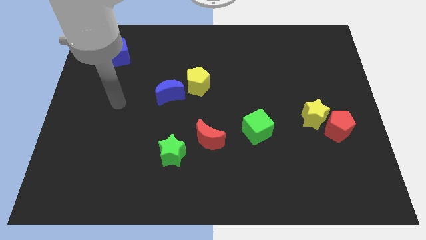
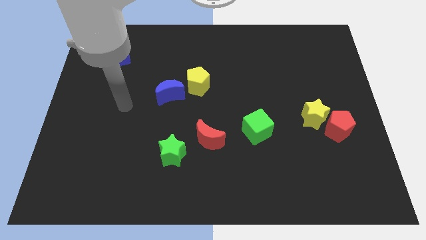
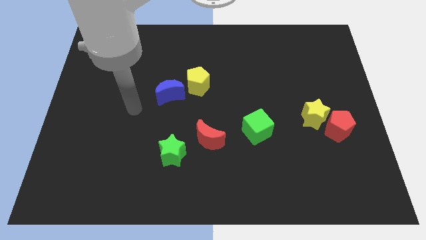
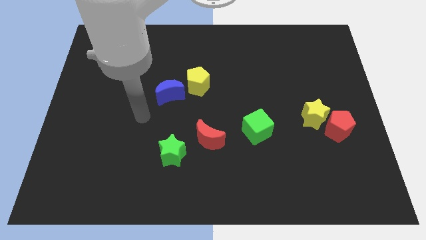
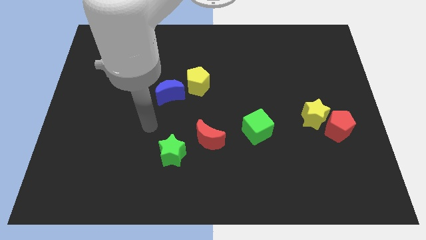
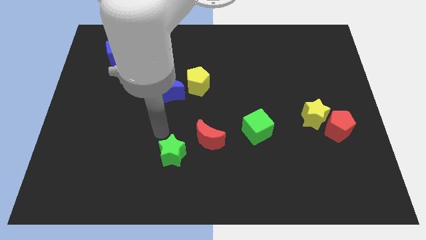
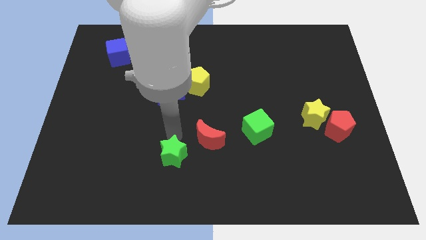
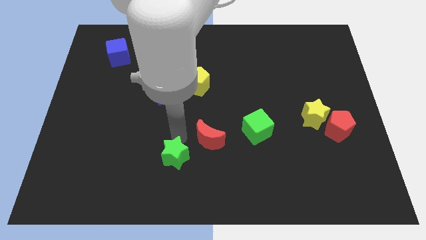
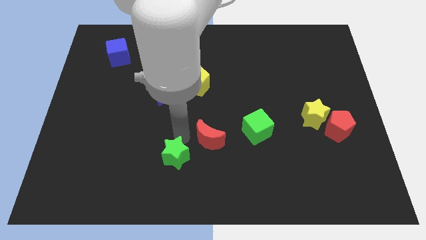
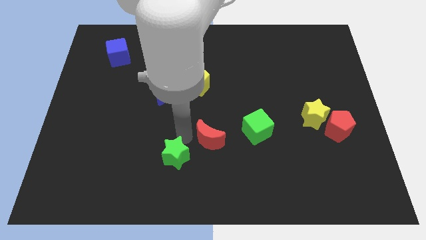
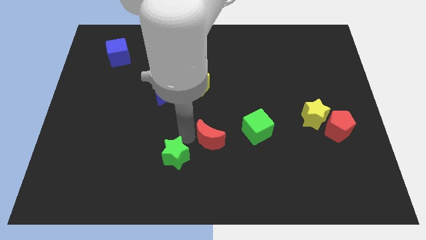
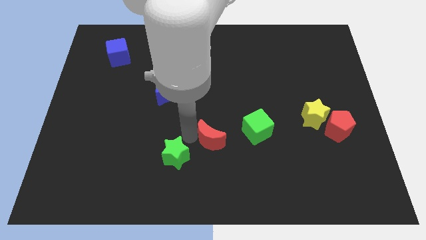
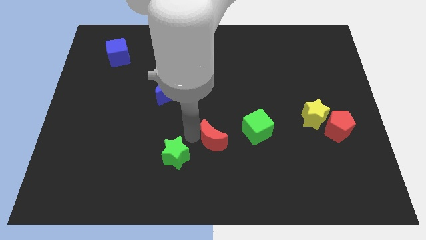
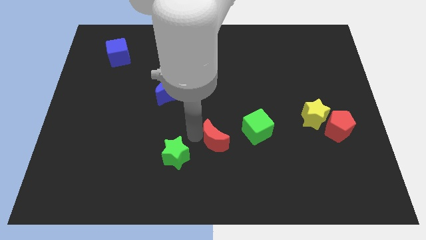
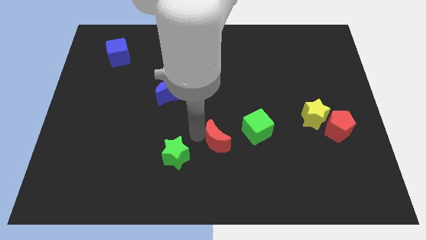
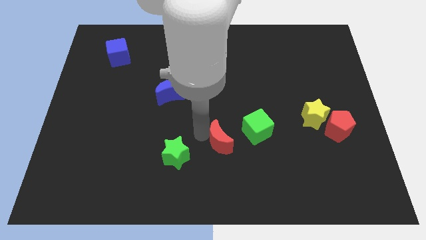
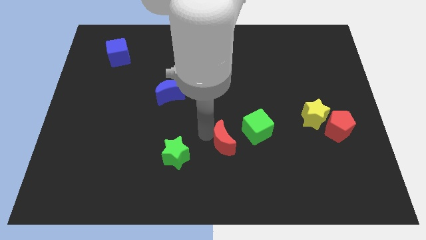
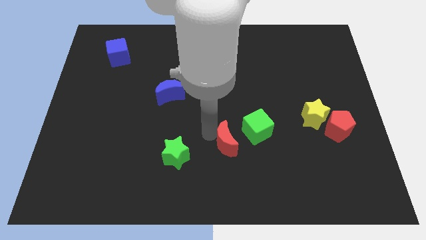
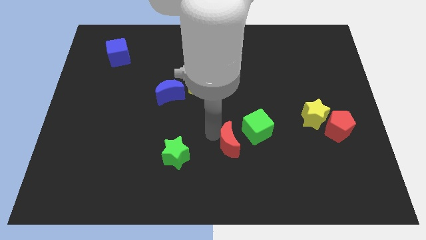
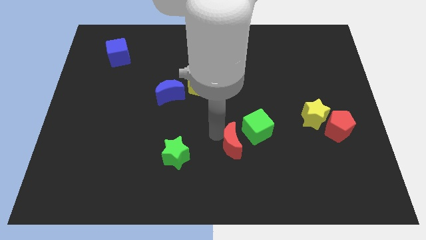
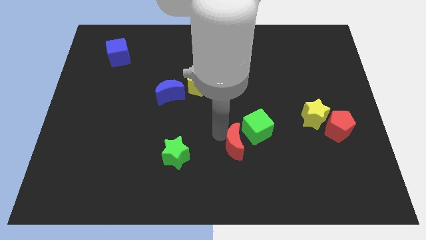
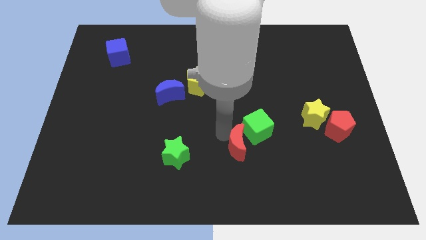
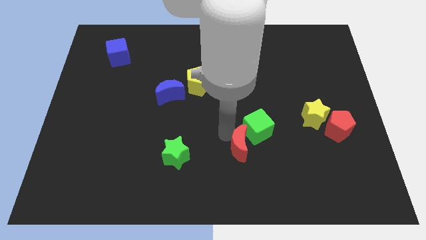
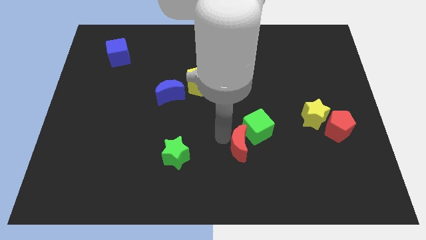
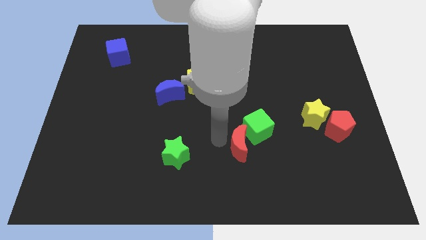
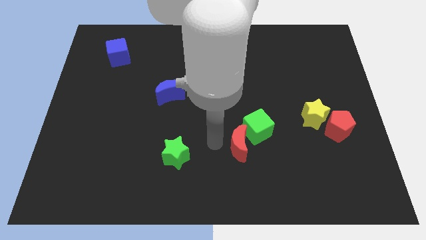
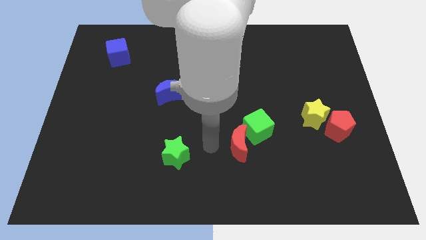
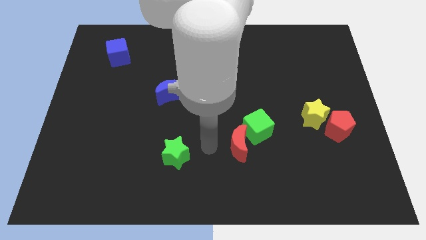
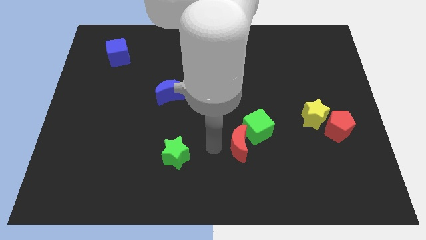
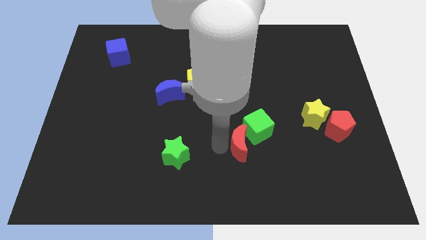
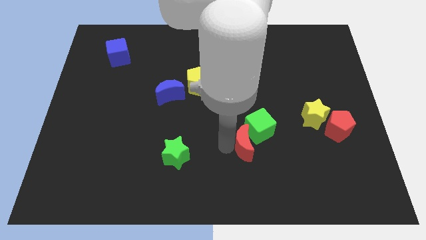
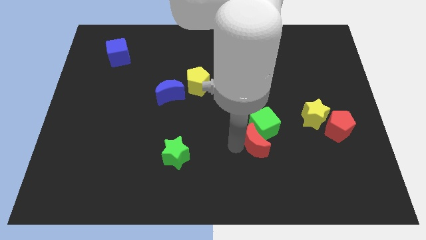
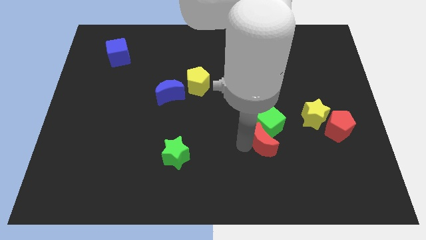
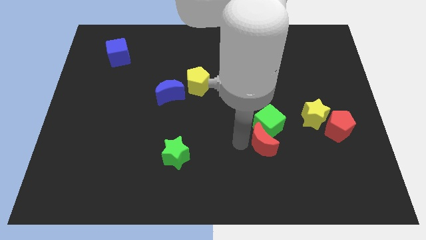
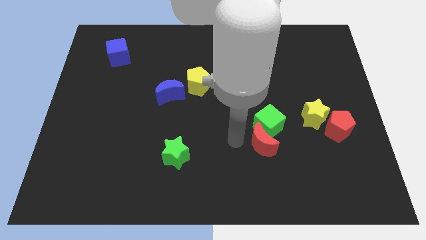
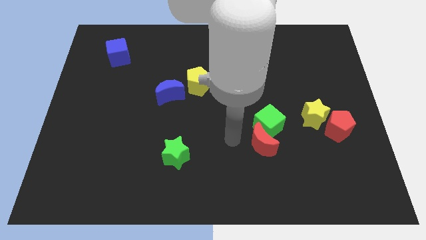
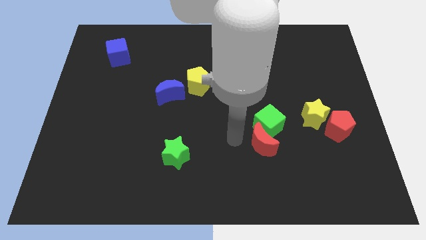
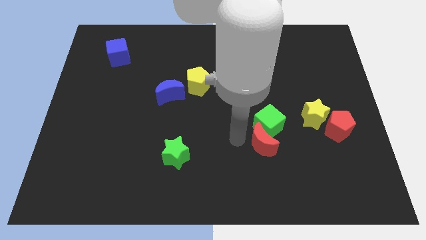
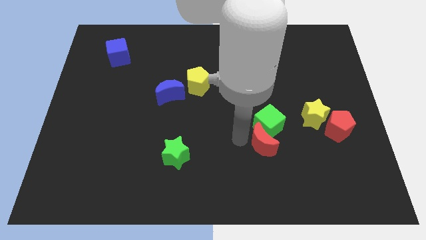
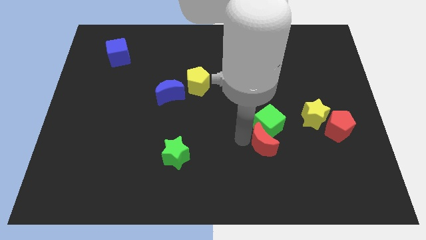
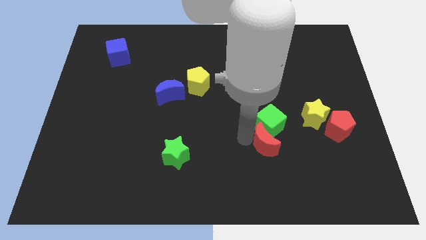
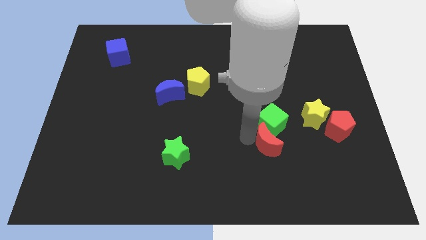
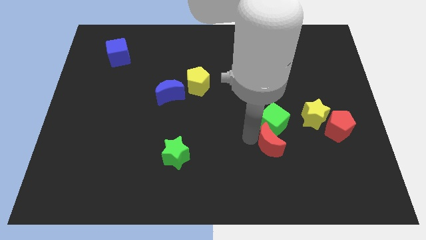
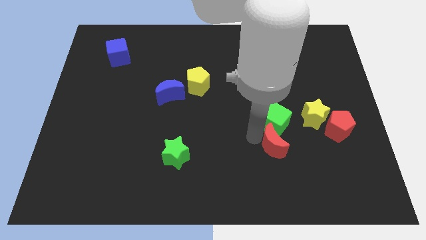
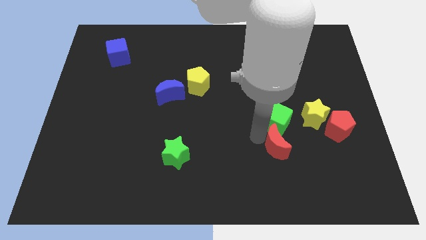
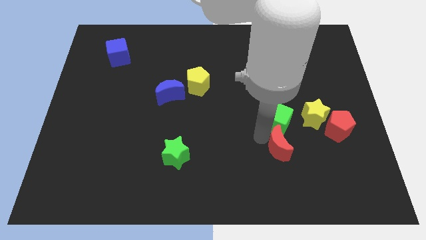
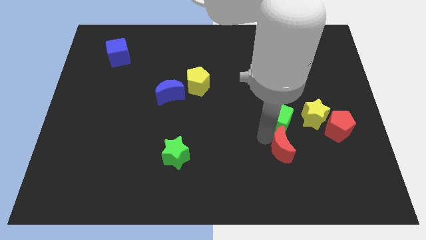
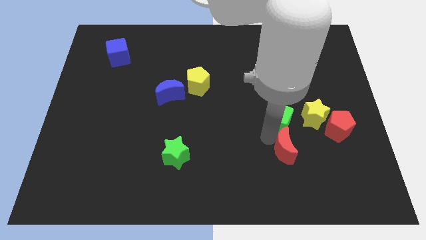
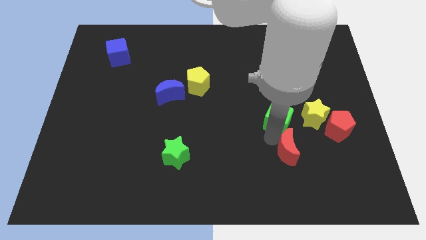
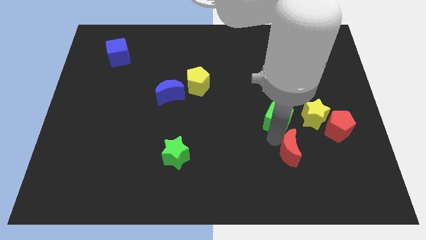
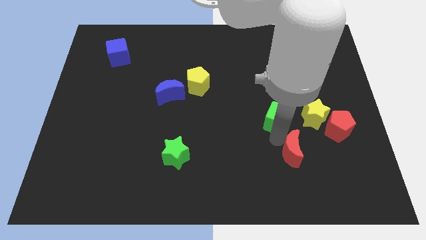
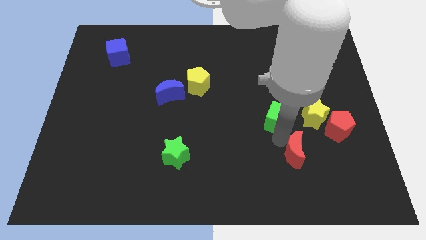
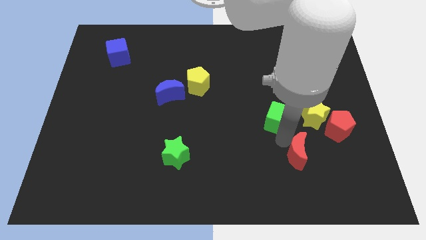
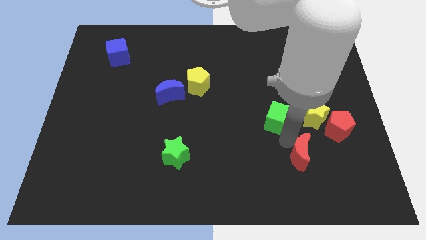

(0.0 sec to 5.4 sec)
put the red moon to the bottom of the yellow star

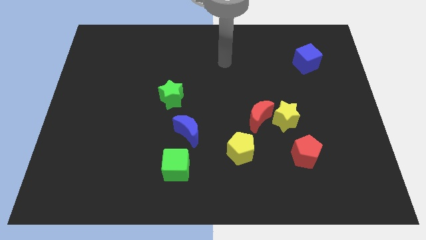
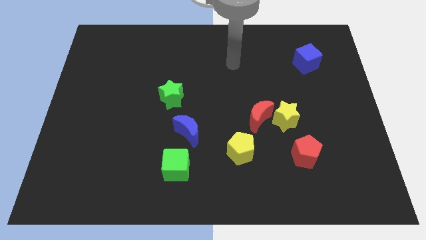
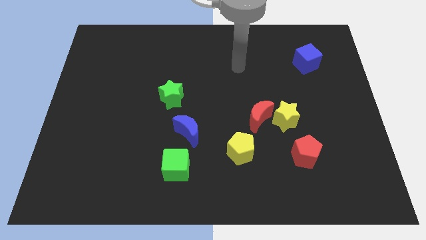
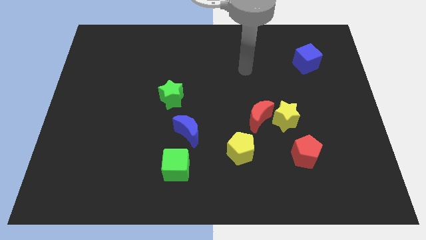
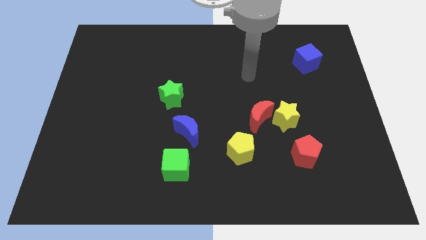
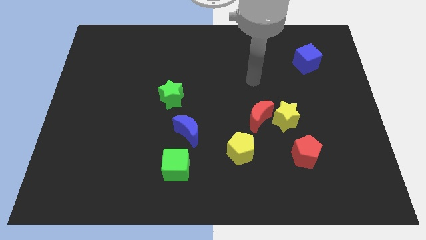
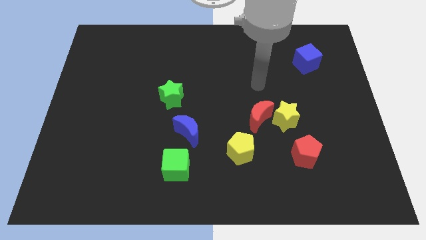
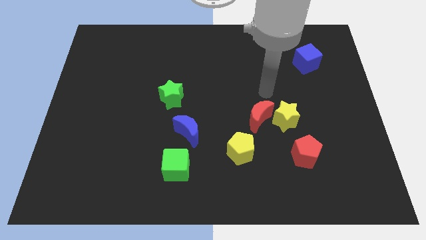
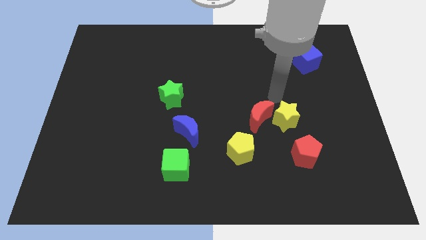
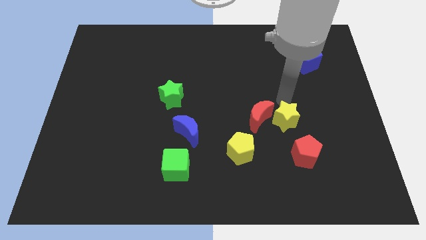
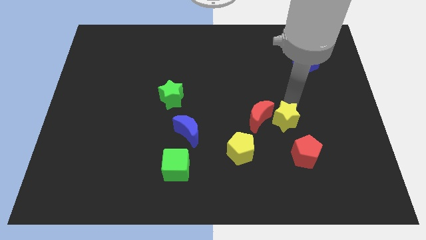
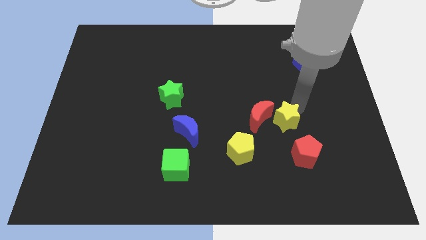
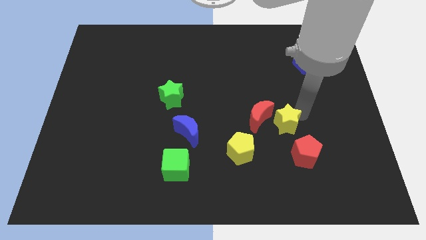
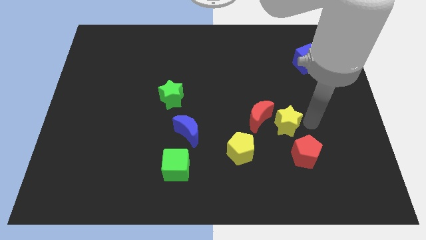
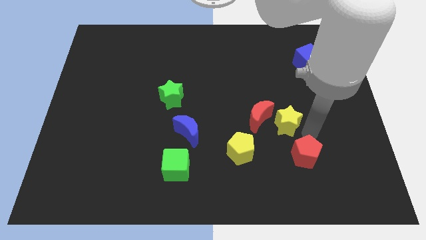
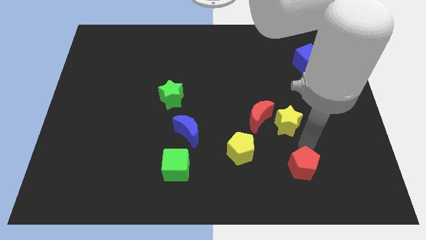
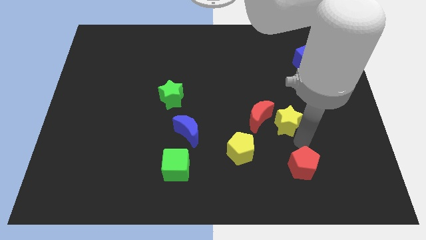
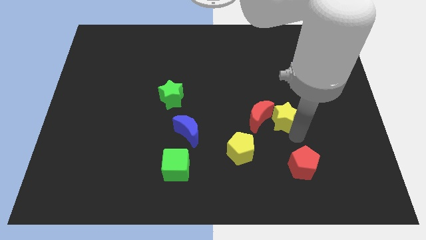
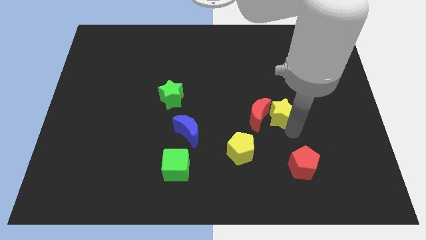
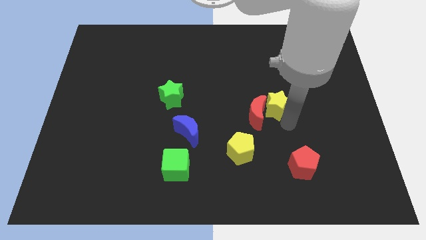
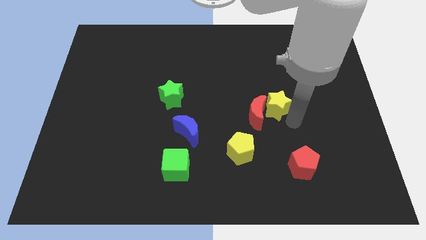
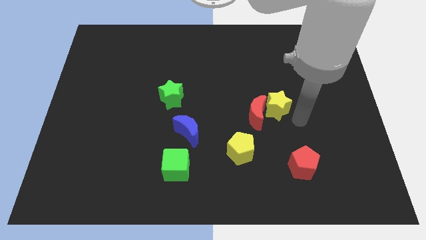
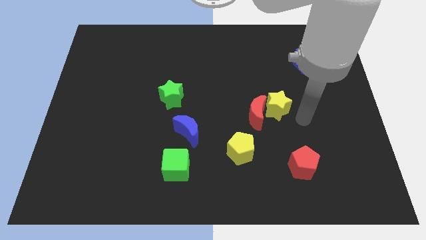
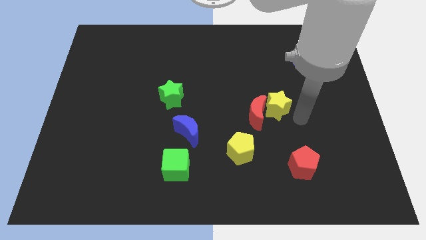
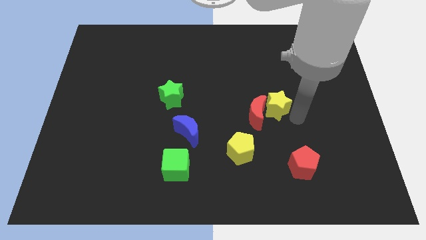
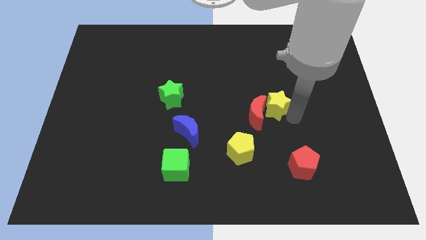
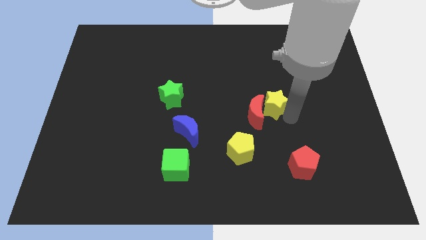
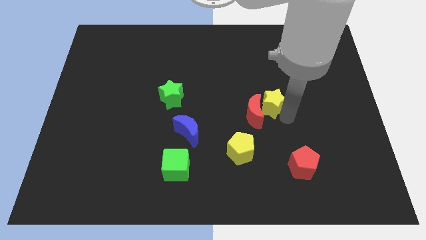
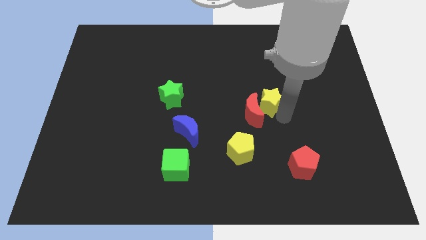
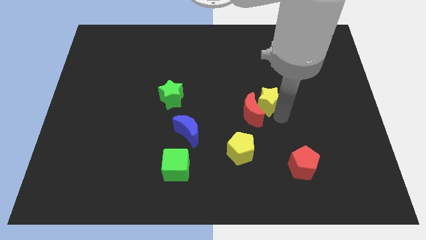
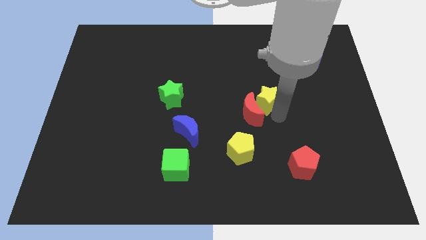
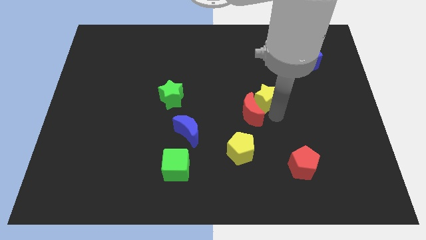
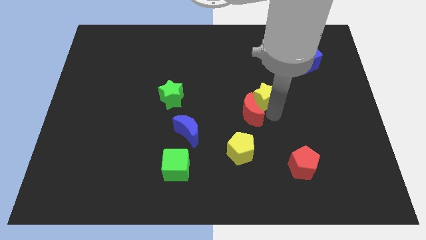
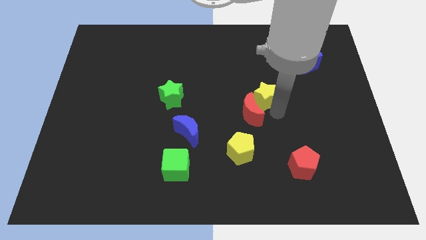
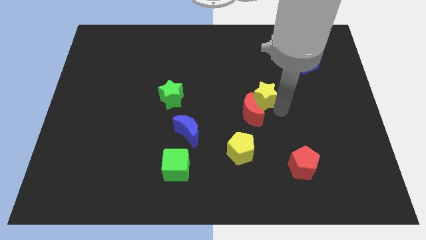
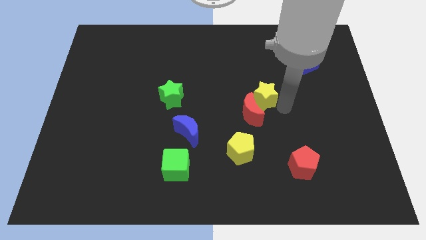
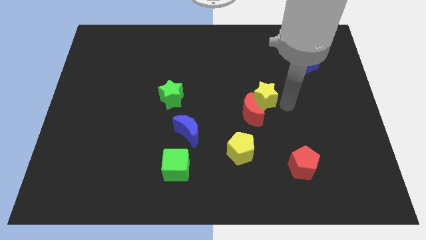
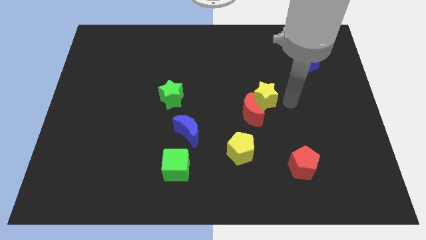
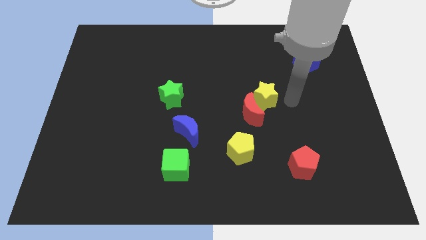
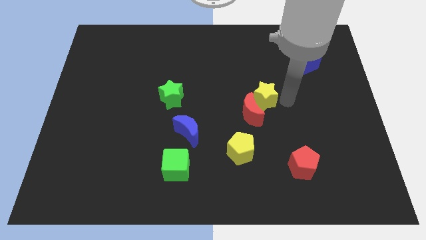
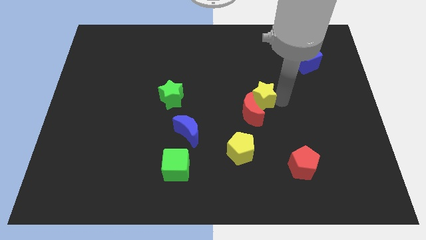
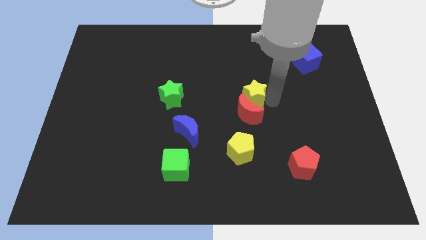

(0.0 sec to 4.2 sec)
push the yellow star to the top left side of the red moon
